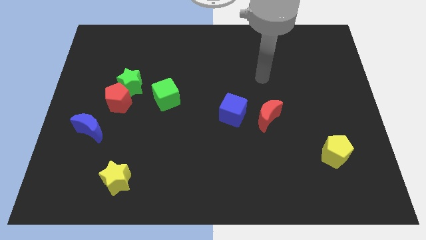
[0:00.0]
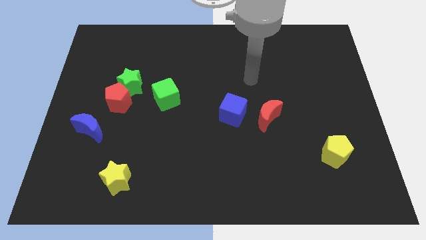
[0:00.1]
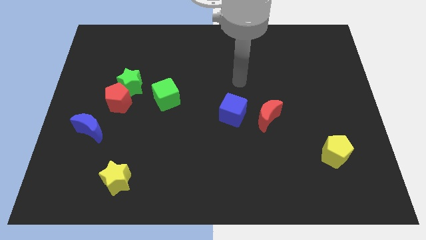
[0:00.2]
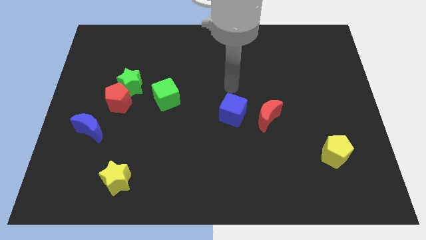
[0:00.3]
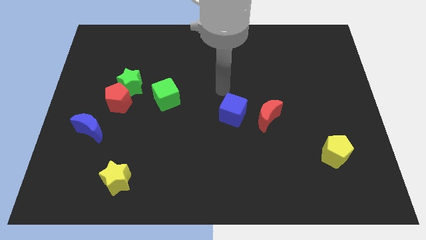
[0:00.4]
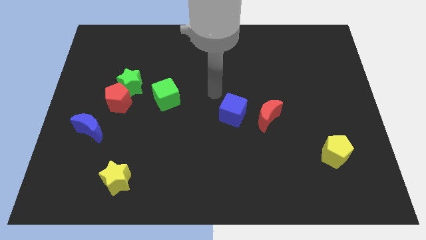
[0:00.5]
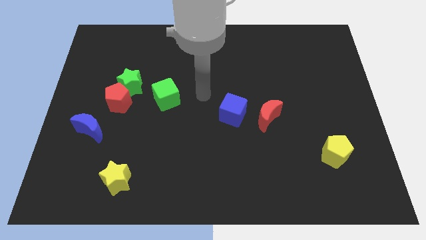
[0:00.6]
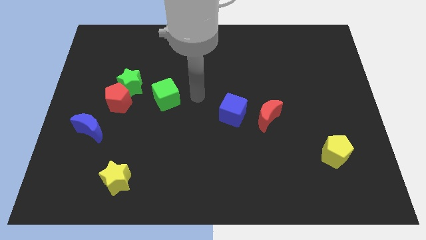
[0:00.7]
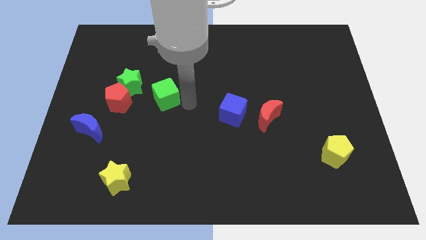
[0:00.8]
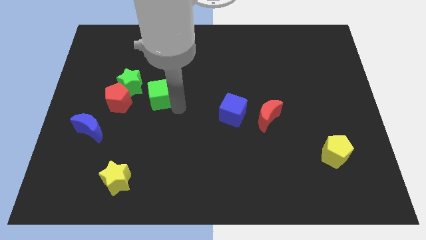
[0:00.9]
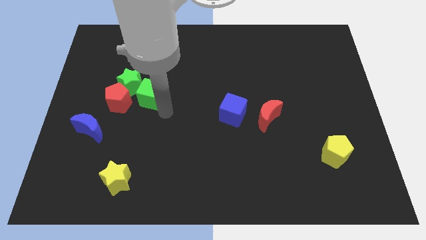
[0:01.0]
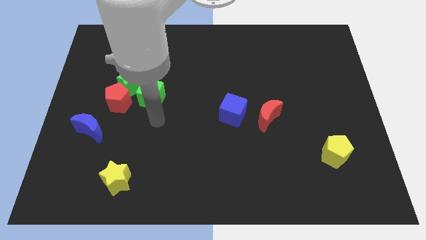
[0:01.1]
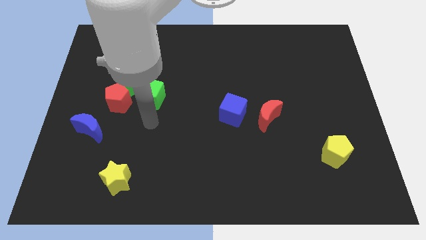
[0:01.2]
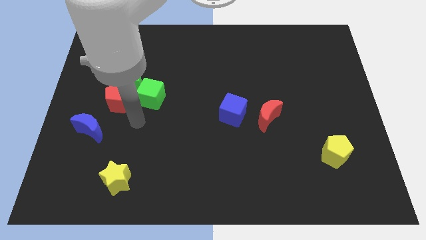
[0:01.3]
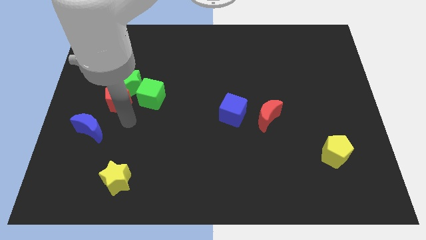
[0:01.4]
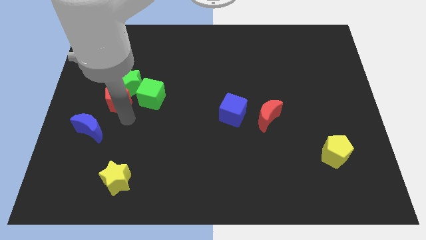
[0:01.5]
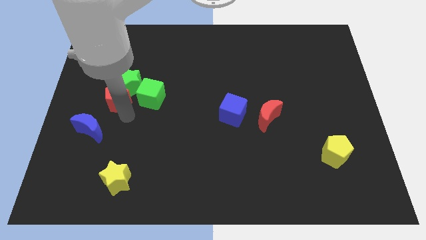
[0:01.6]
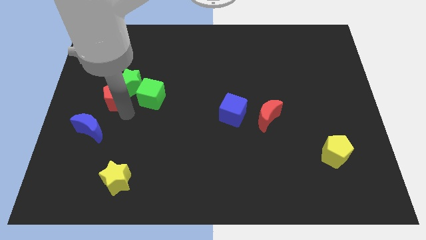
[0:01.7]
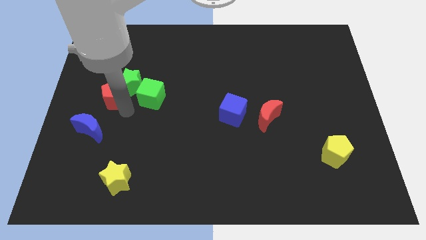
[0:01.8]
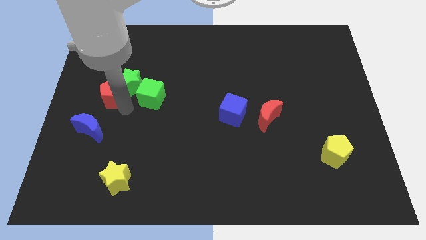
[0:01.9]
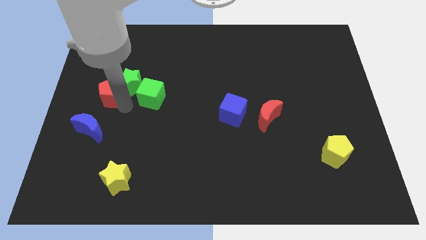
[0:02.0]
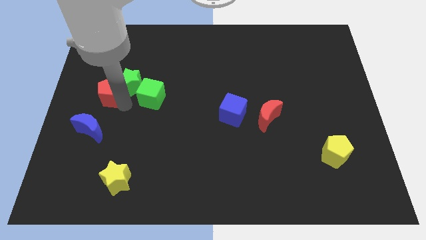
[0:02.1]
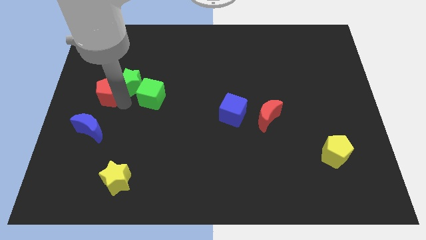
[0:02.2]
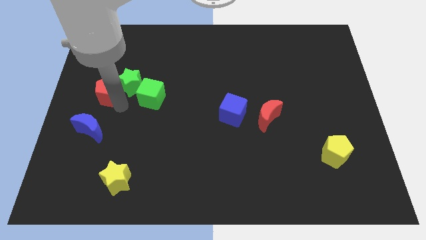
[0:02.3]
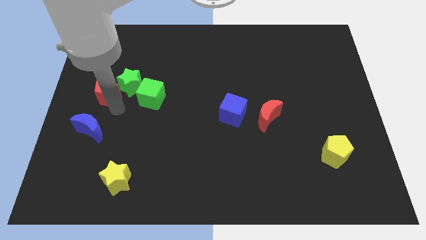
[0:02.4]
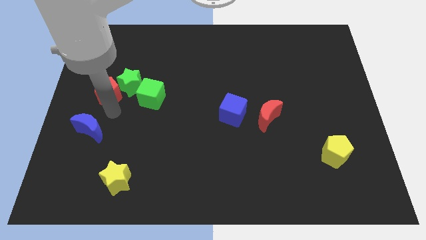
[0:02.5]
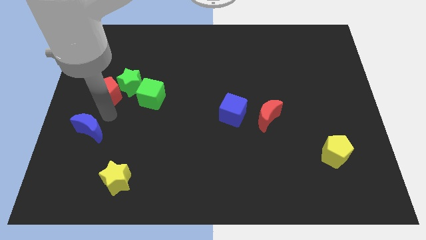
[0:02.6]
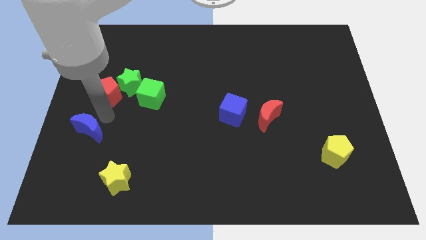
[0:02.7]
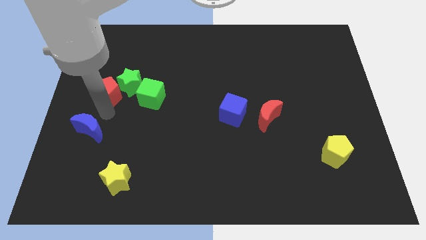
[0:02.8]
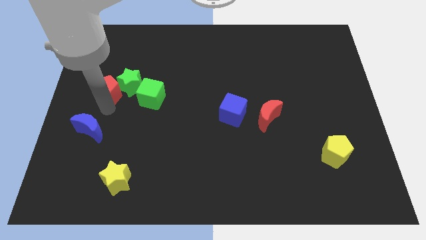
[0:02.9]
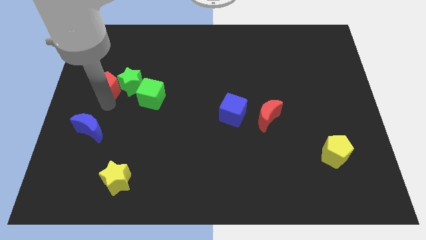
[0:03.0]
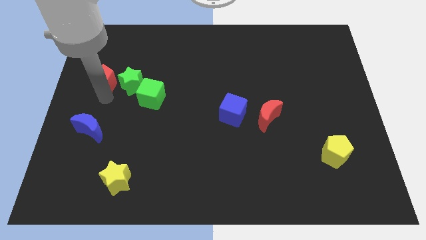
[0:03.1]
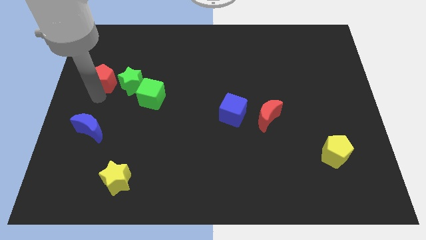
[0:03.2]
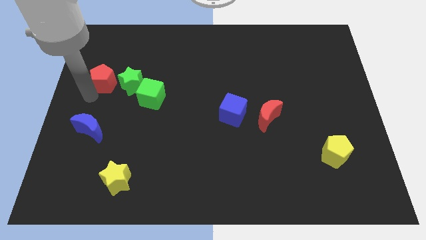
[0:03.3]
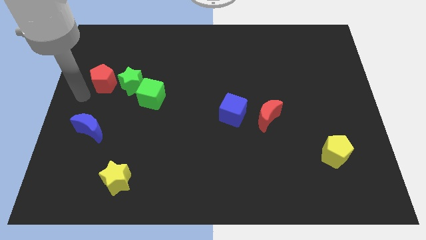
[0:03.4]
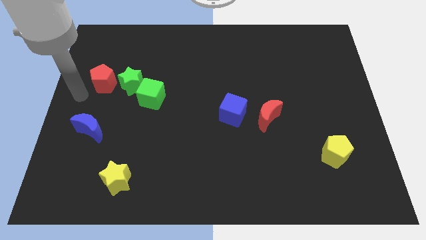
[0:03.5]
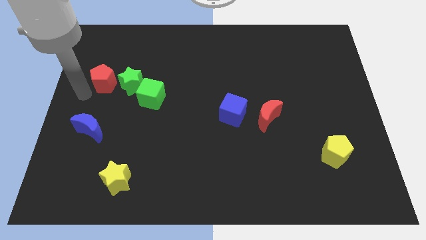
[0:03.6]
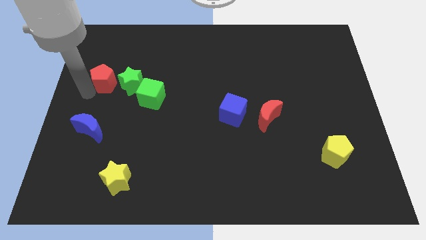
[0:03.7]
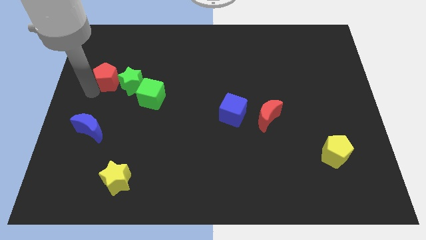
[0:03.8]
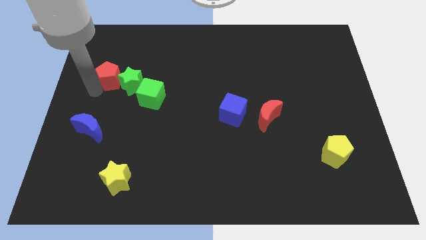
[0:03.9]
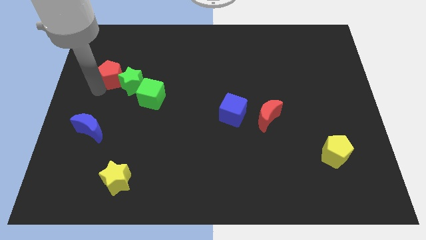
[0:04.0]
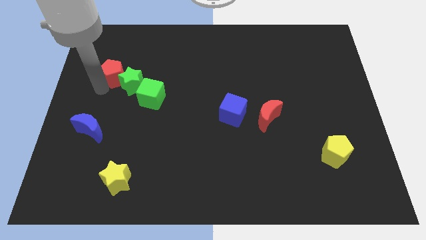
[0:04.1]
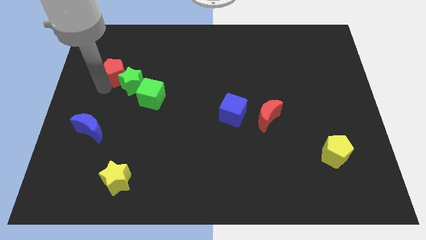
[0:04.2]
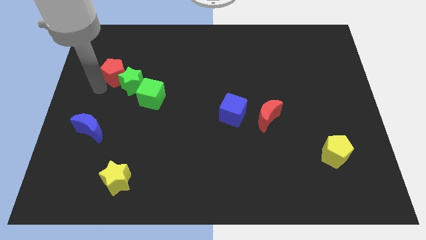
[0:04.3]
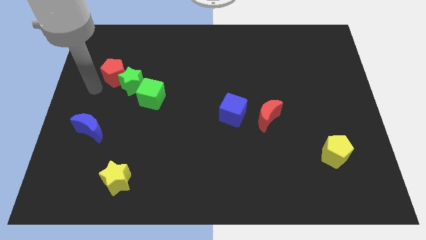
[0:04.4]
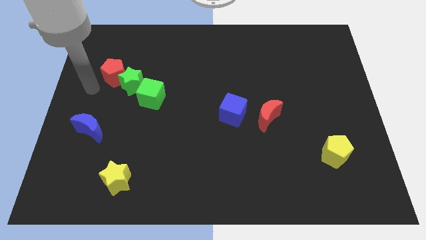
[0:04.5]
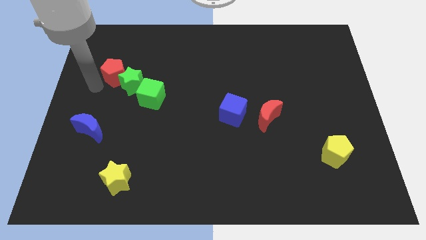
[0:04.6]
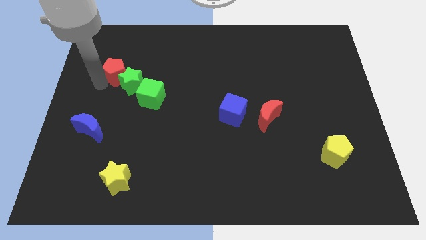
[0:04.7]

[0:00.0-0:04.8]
separate the red pentagon from the green star and blue moon

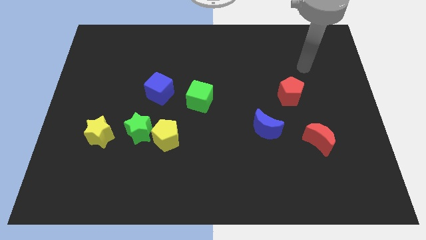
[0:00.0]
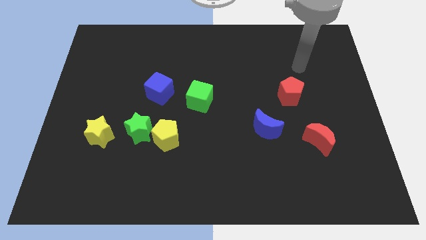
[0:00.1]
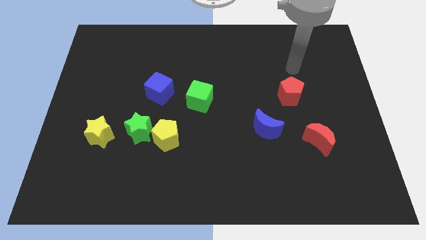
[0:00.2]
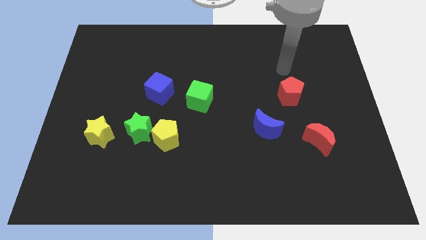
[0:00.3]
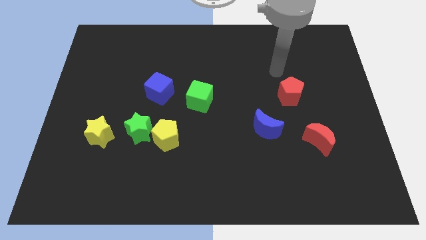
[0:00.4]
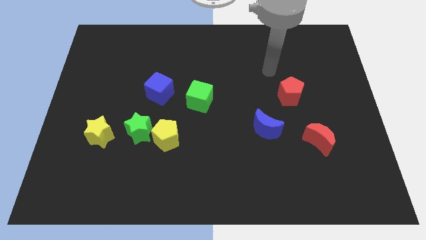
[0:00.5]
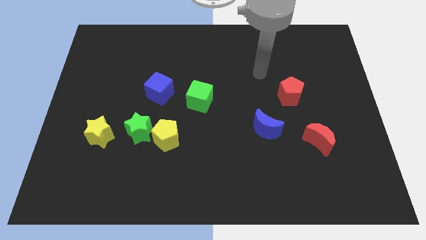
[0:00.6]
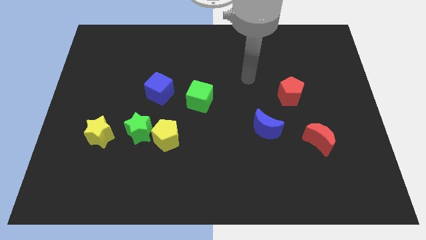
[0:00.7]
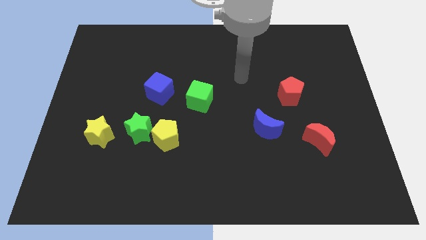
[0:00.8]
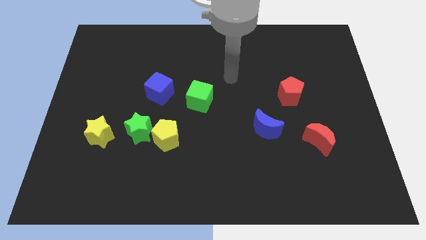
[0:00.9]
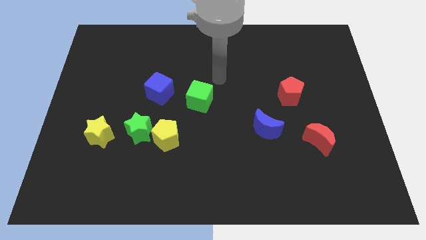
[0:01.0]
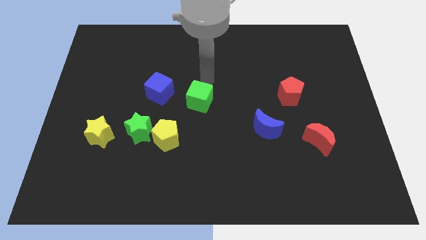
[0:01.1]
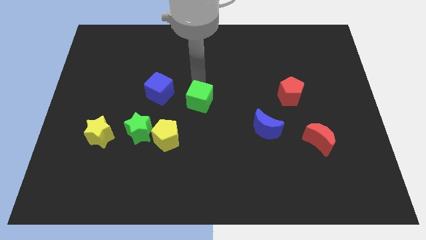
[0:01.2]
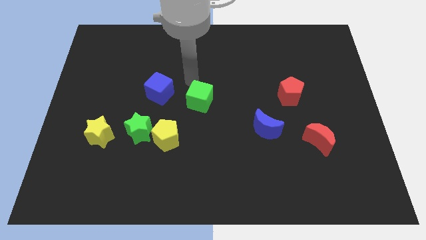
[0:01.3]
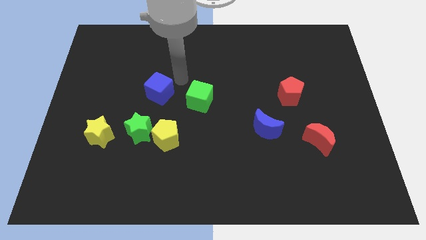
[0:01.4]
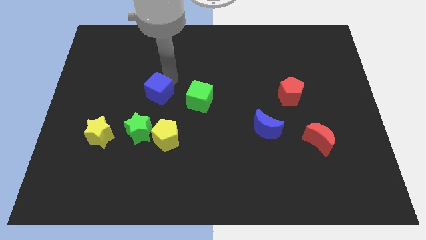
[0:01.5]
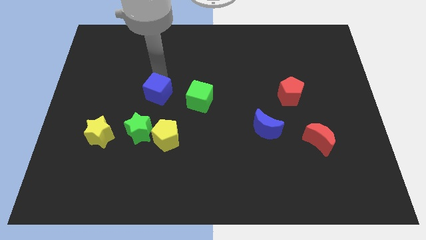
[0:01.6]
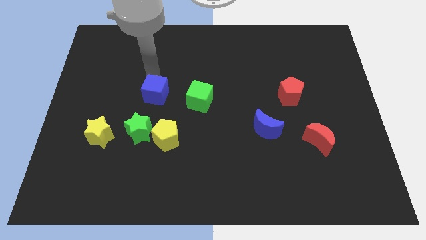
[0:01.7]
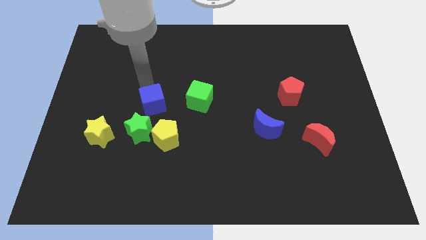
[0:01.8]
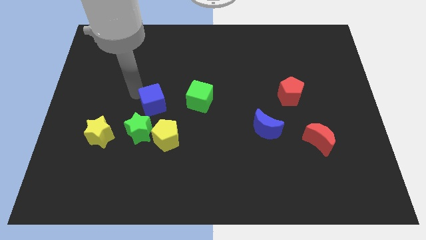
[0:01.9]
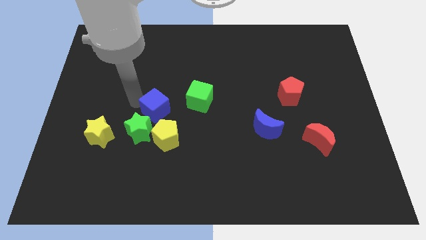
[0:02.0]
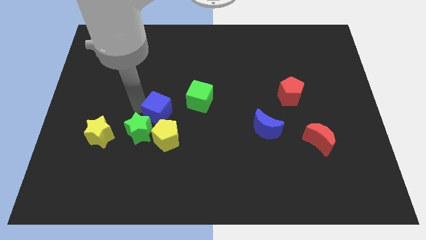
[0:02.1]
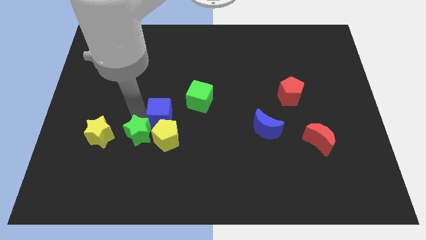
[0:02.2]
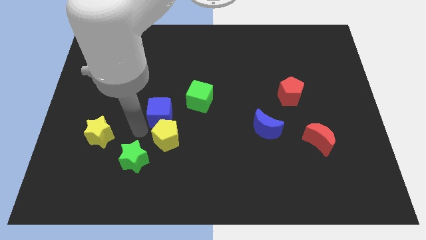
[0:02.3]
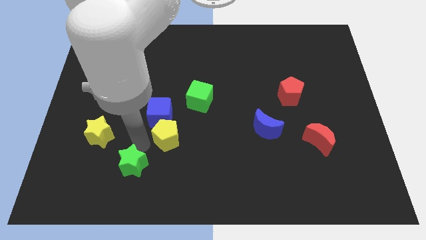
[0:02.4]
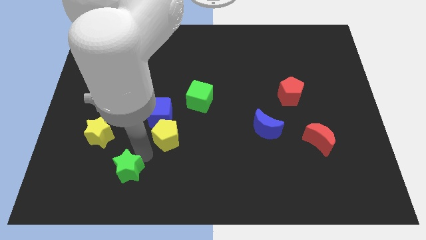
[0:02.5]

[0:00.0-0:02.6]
pull the yellow pentagon apart from the green star

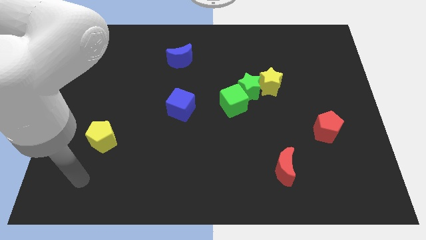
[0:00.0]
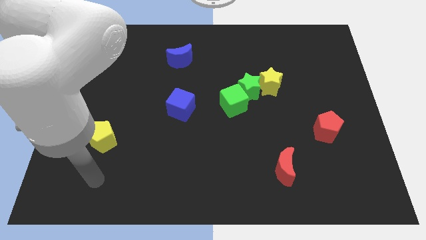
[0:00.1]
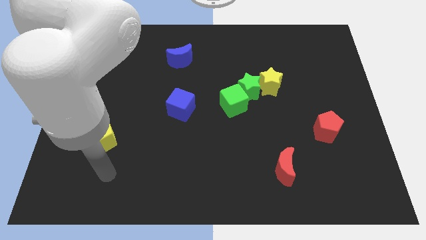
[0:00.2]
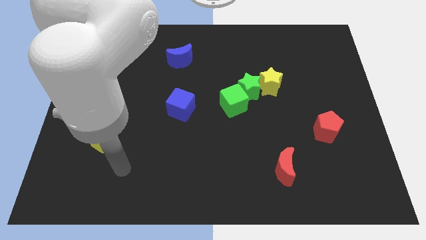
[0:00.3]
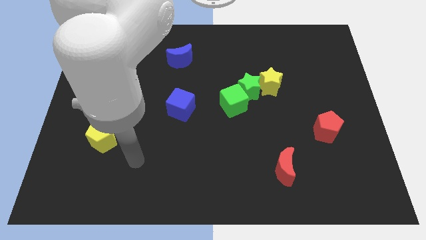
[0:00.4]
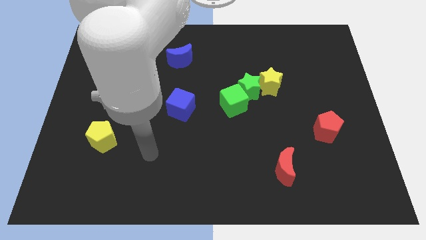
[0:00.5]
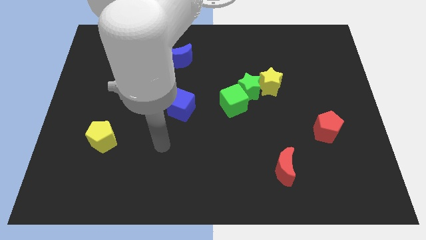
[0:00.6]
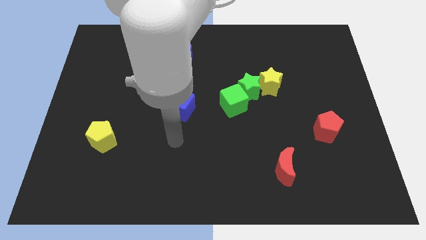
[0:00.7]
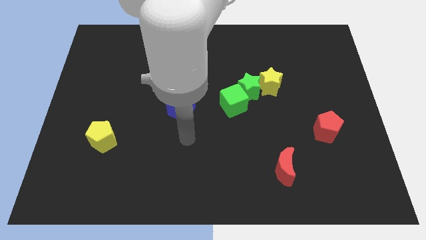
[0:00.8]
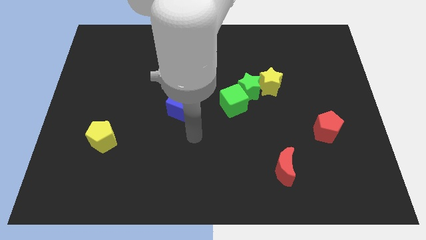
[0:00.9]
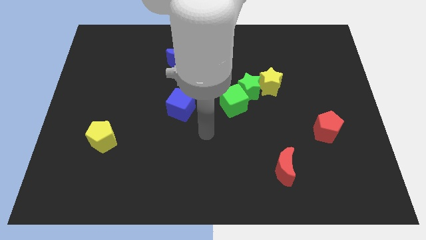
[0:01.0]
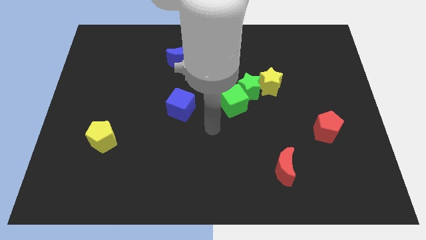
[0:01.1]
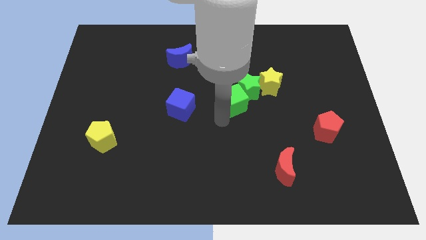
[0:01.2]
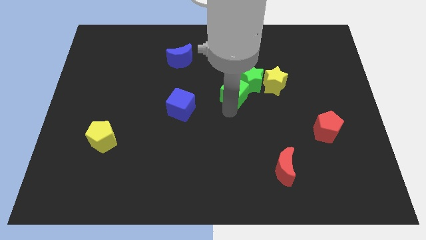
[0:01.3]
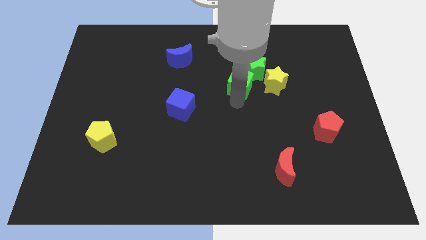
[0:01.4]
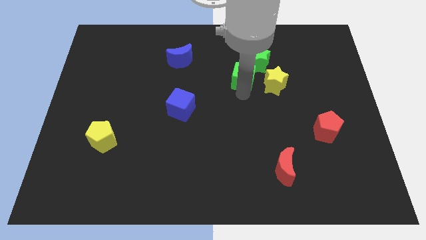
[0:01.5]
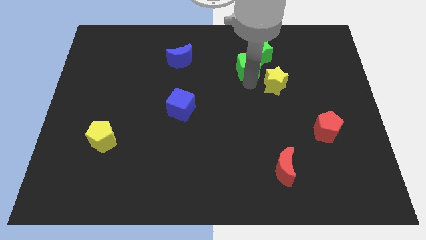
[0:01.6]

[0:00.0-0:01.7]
move the yellow star away from the green star

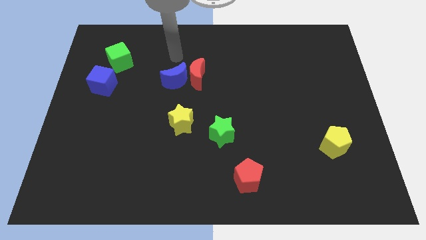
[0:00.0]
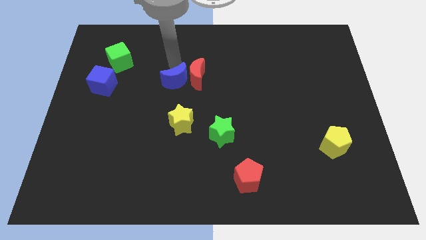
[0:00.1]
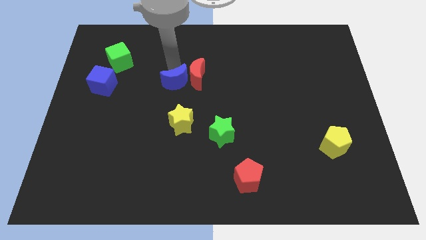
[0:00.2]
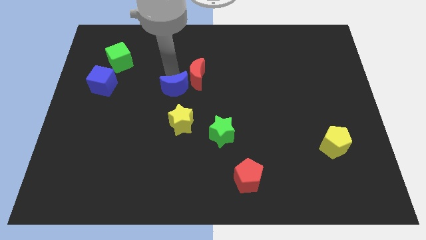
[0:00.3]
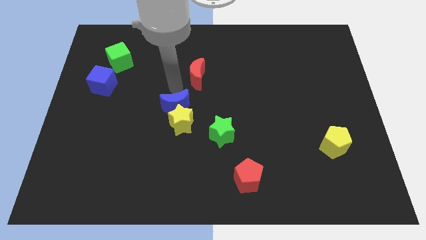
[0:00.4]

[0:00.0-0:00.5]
move the red moon away from the blue moon
